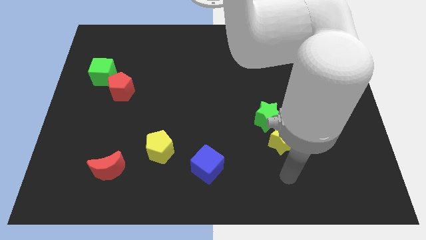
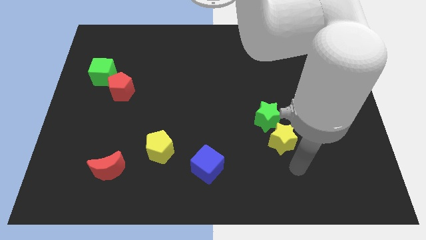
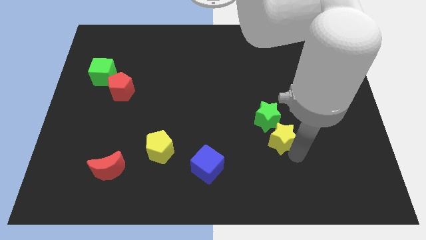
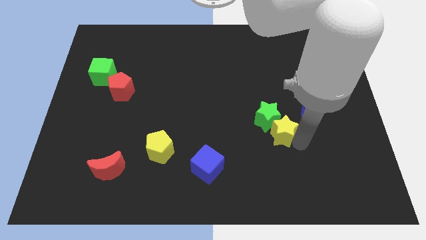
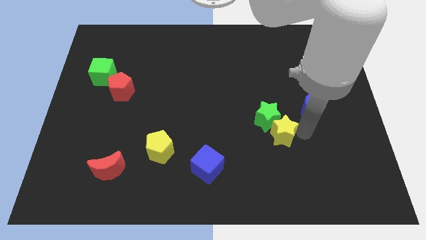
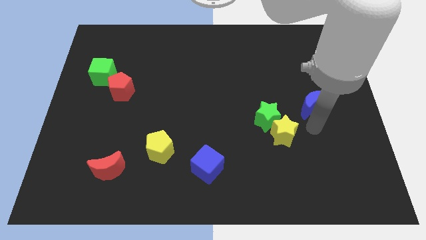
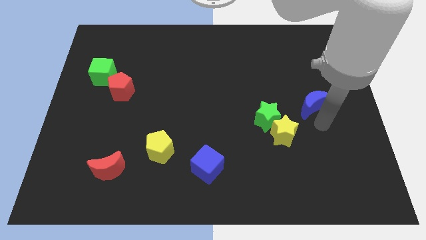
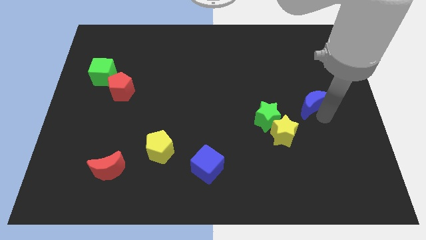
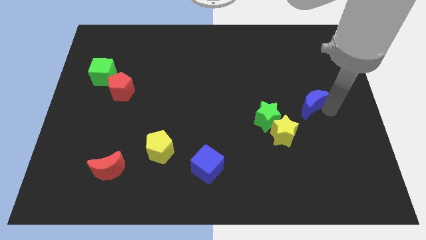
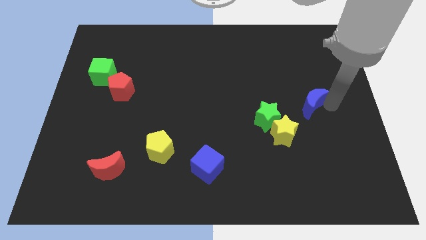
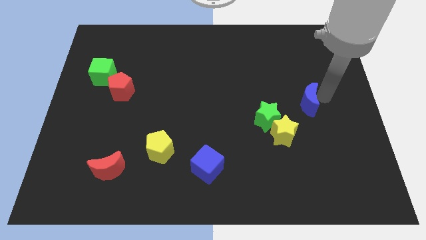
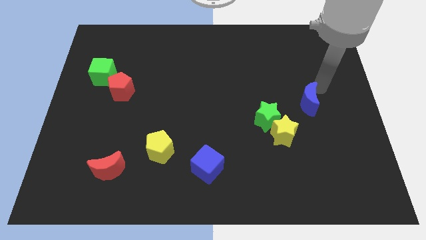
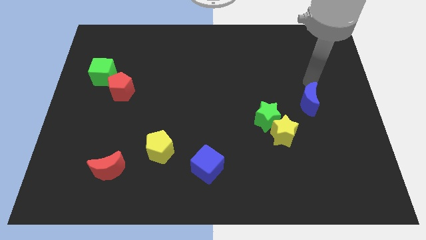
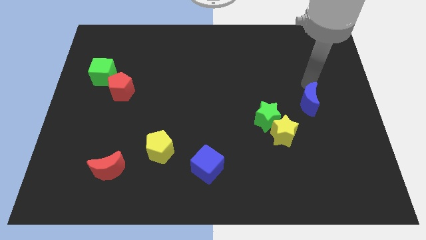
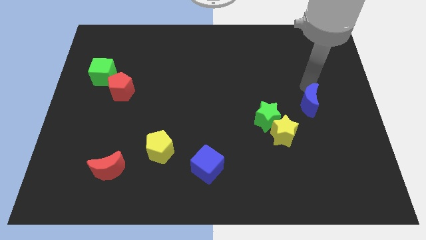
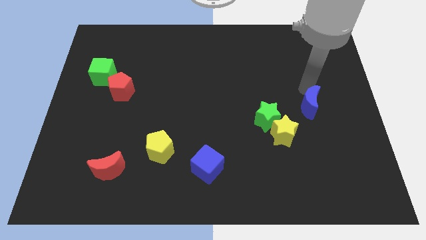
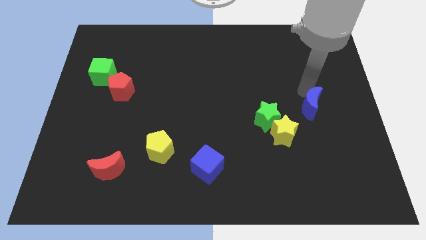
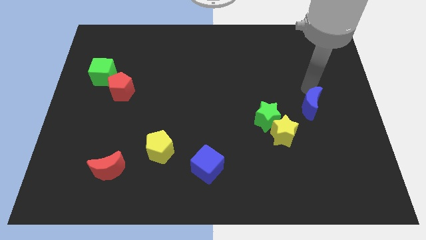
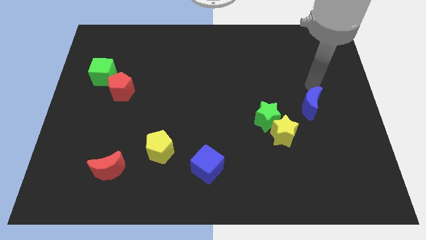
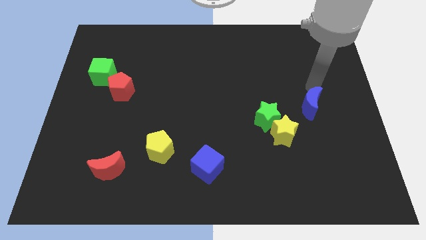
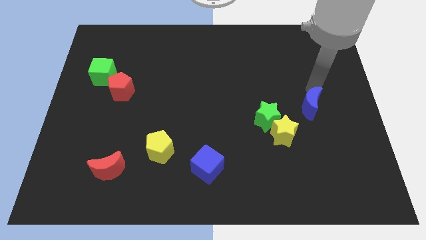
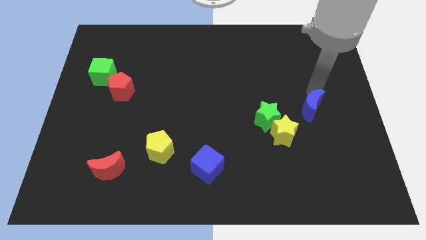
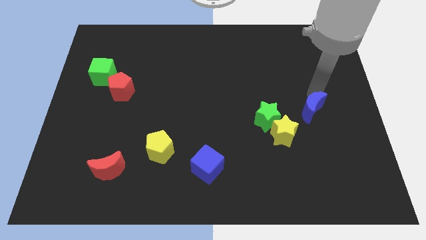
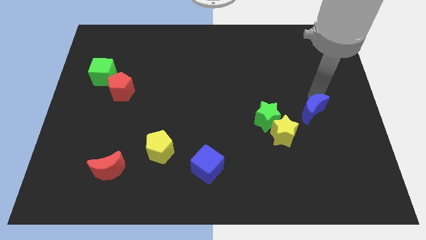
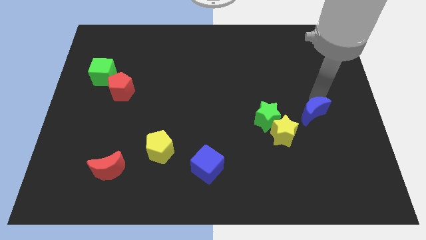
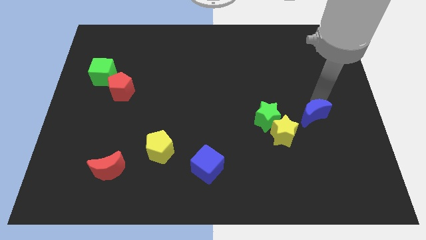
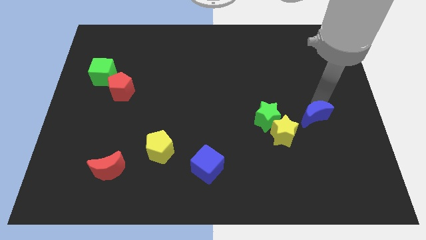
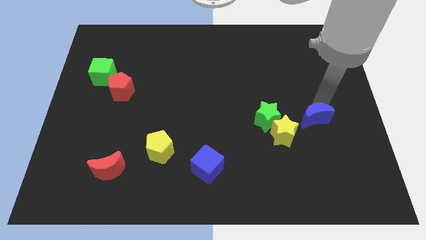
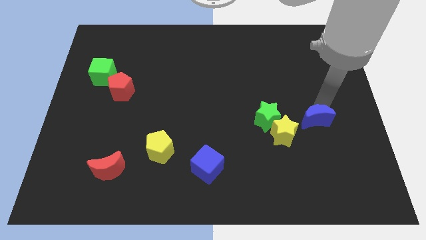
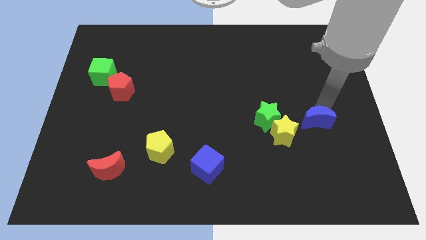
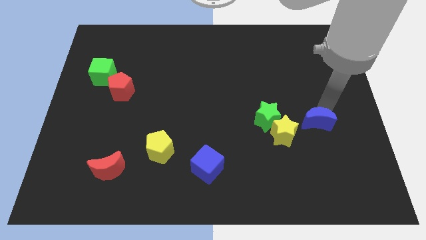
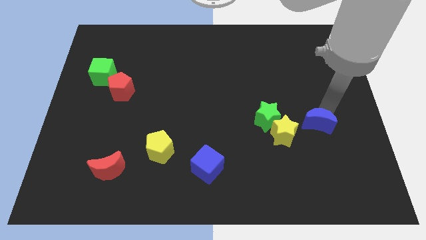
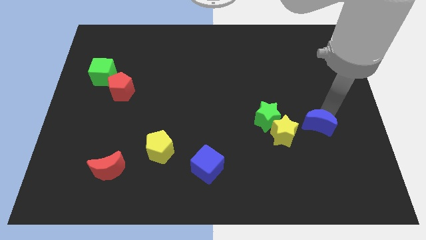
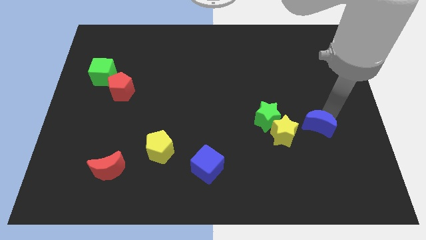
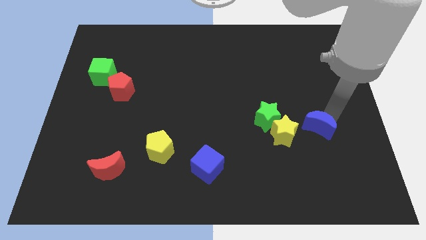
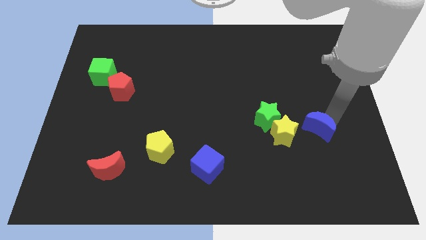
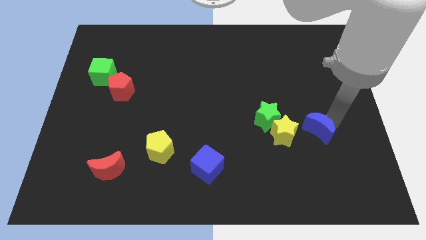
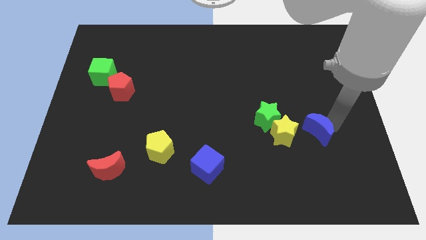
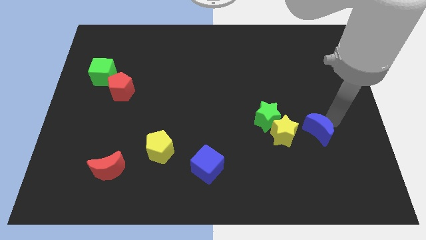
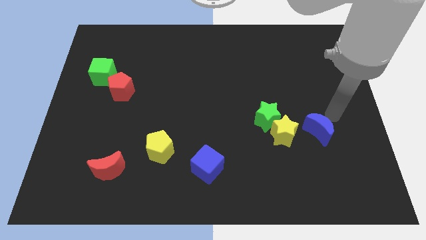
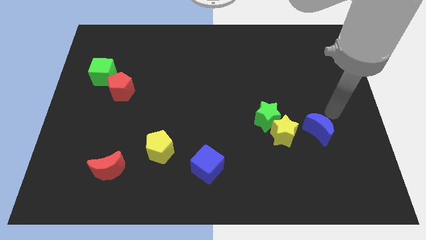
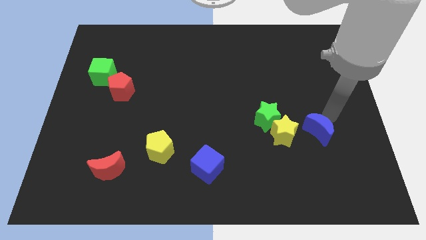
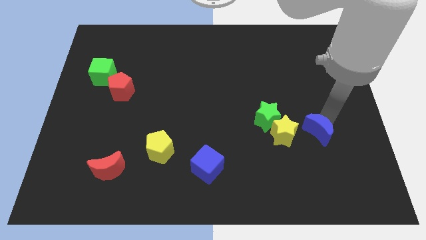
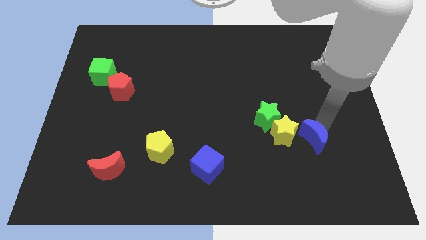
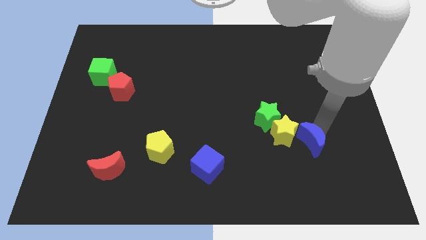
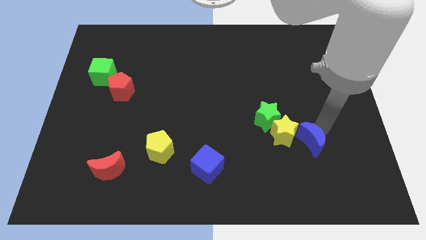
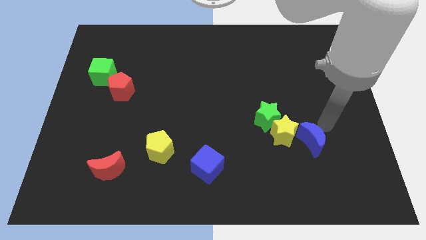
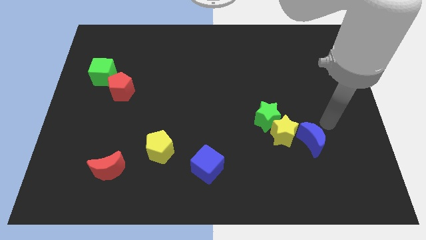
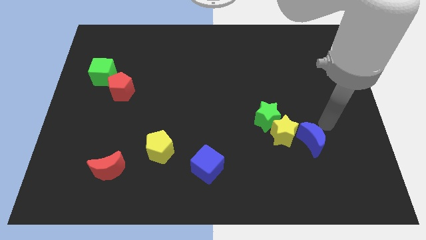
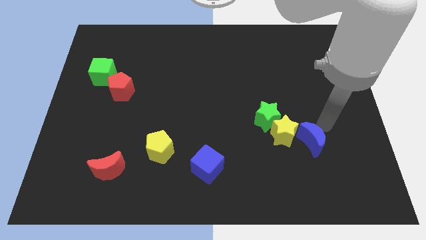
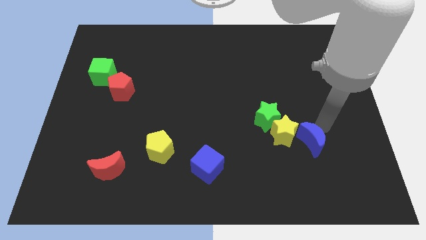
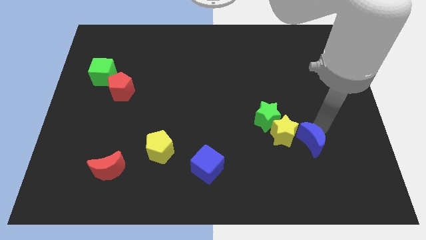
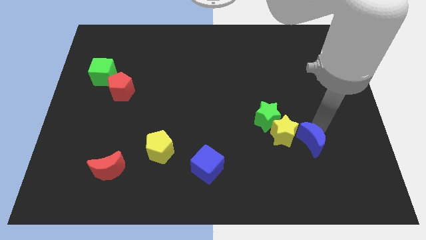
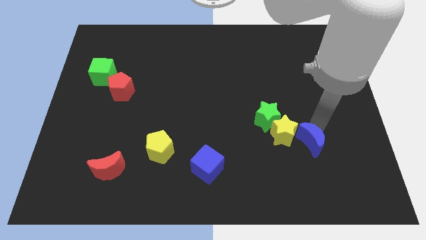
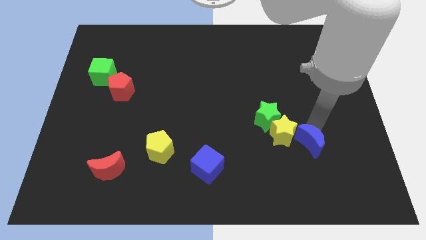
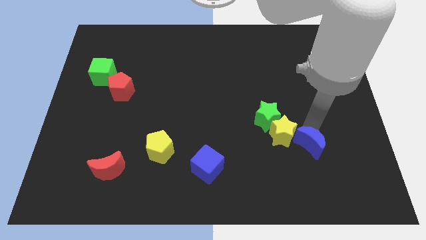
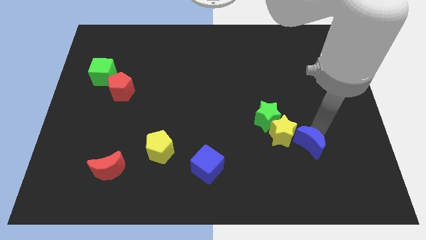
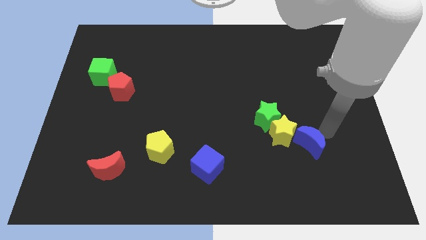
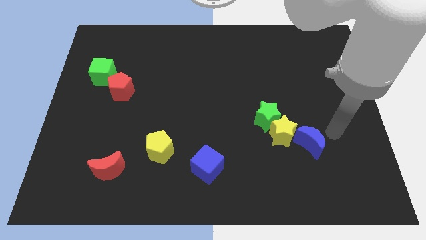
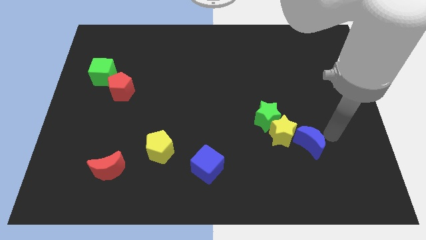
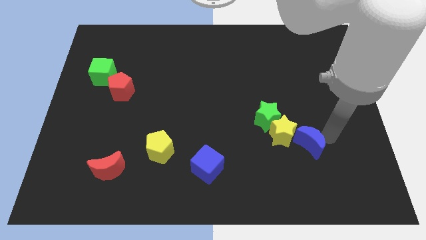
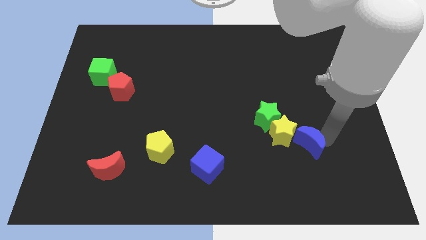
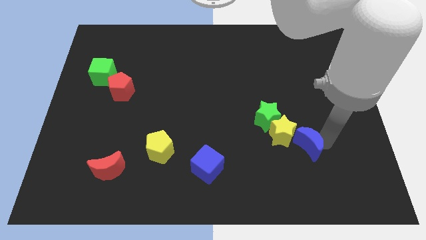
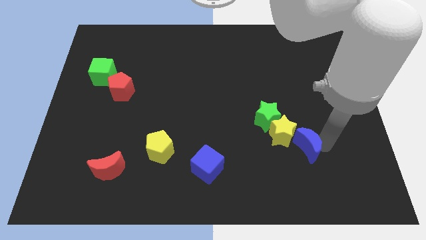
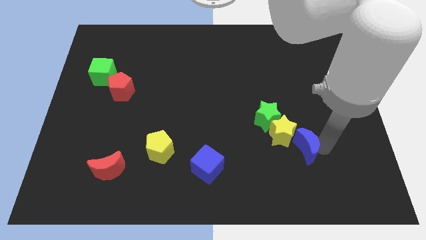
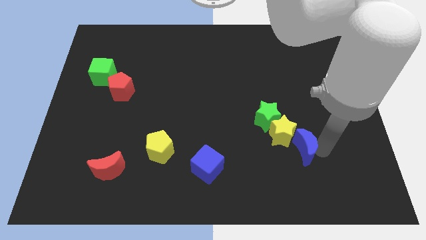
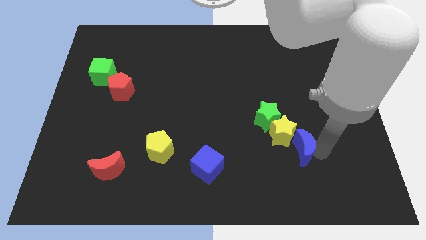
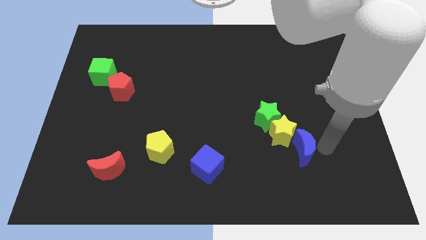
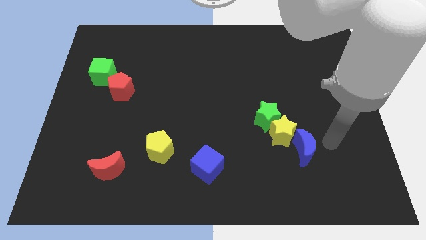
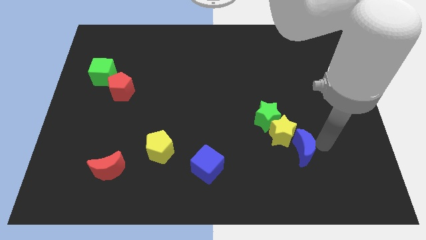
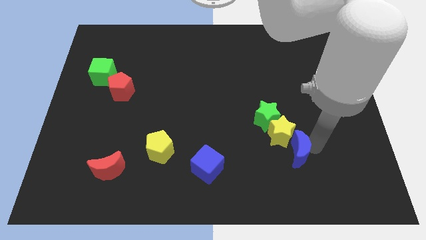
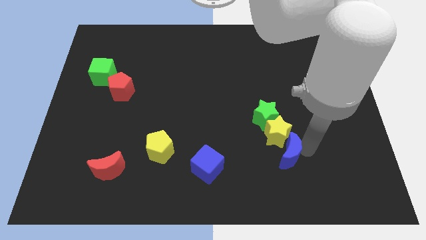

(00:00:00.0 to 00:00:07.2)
slide the blue moon to the bottom side of the green star
